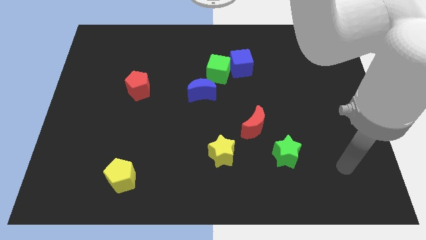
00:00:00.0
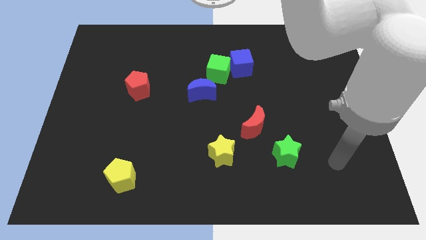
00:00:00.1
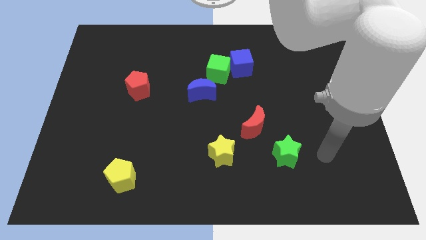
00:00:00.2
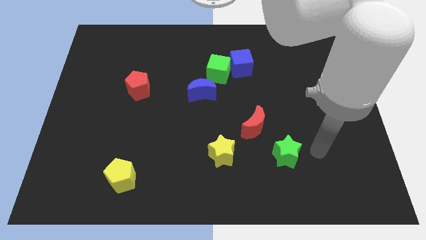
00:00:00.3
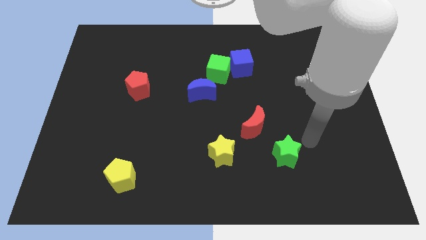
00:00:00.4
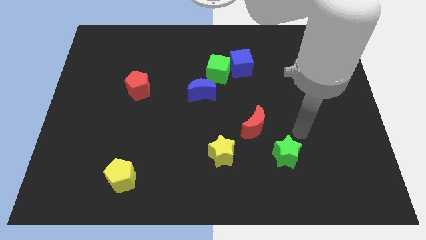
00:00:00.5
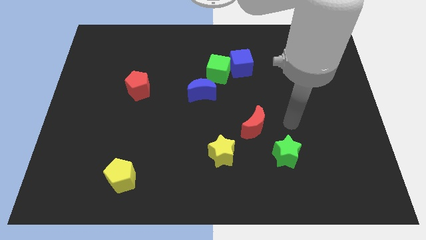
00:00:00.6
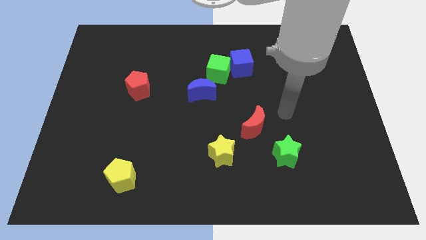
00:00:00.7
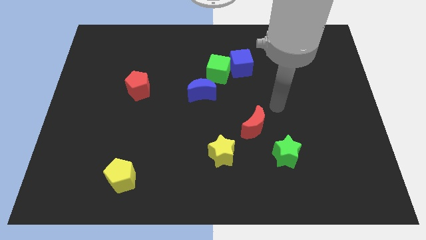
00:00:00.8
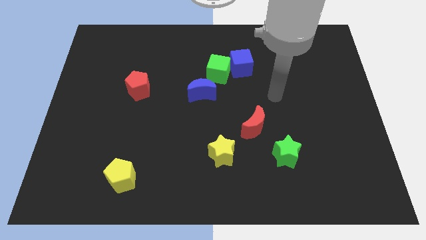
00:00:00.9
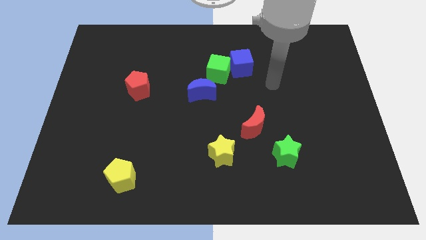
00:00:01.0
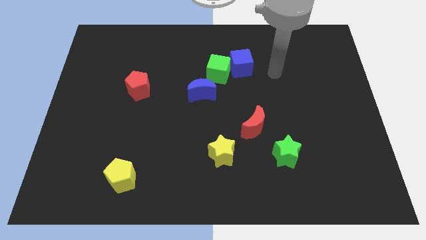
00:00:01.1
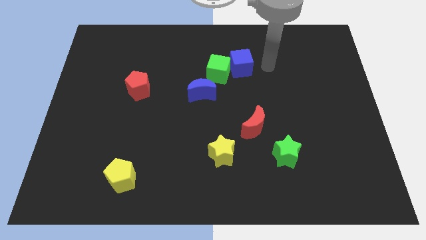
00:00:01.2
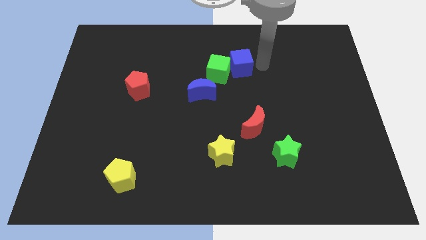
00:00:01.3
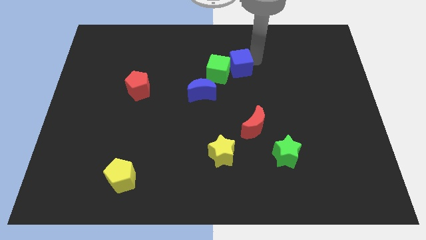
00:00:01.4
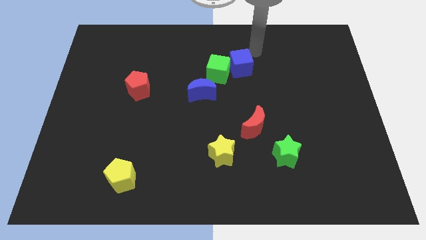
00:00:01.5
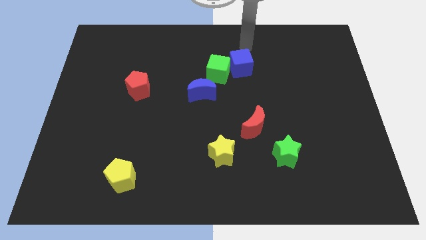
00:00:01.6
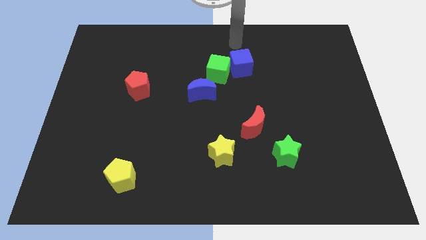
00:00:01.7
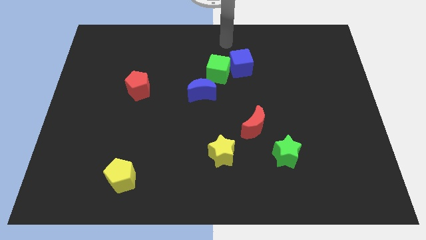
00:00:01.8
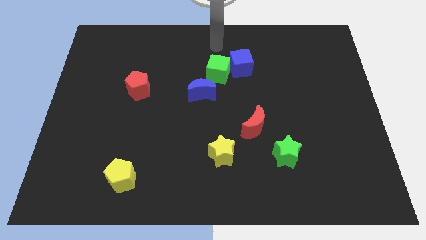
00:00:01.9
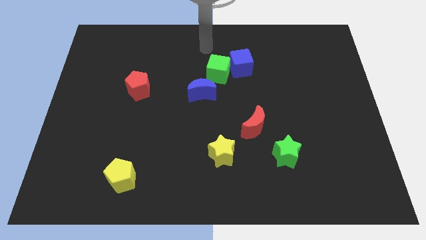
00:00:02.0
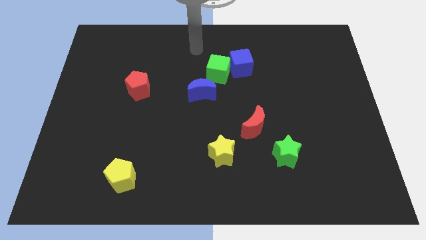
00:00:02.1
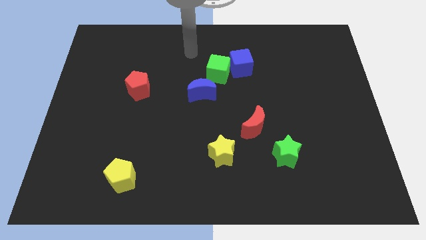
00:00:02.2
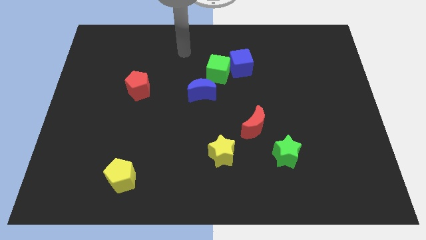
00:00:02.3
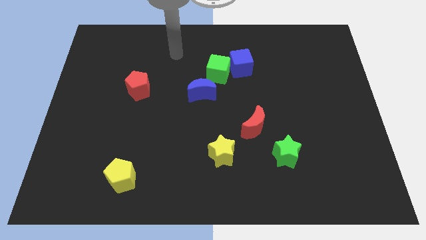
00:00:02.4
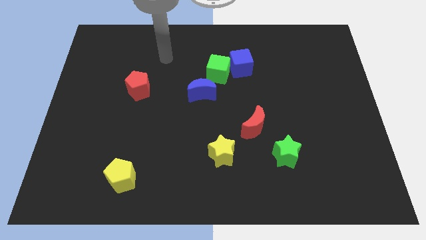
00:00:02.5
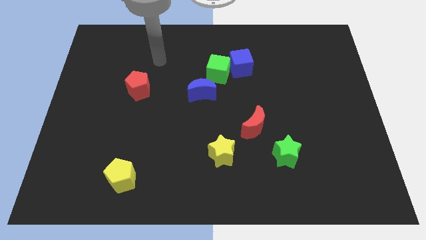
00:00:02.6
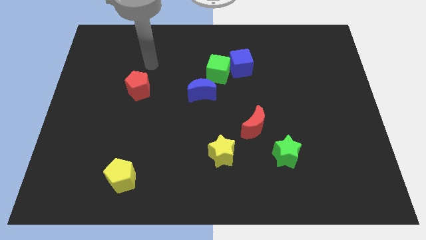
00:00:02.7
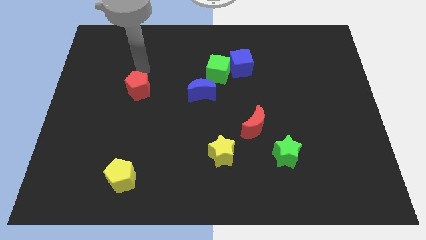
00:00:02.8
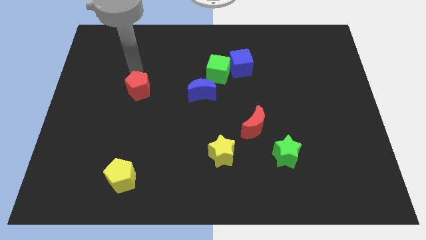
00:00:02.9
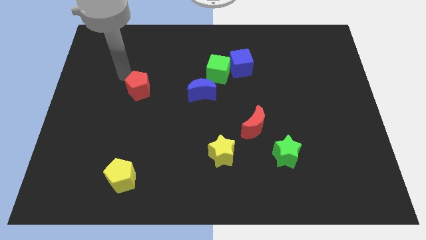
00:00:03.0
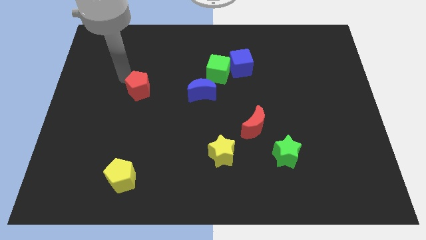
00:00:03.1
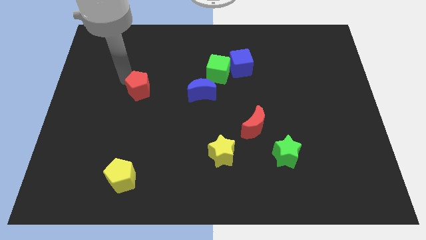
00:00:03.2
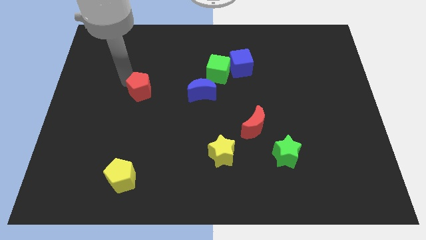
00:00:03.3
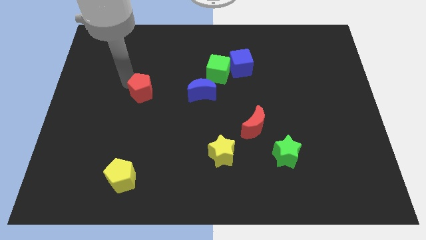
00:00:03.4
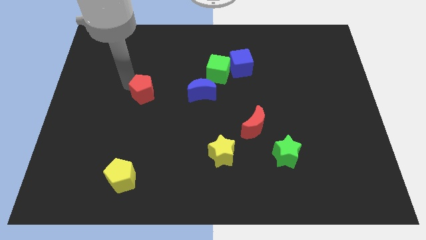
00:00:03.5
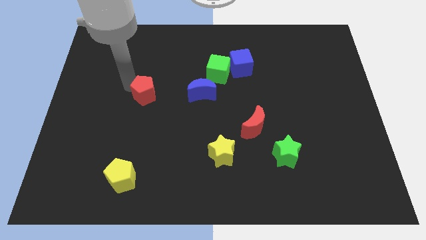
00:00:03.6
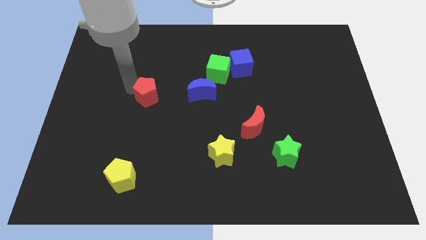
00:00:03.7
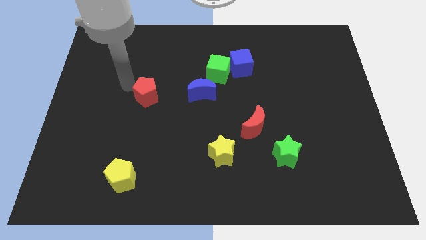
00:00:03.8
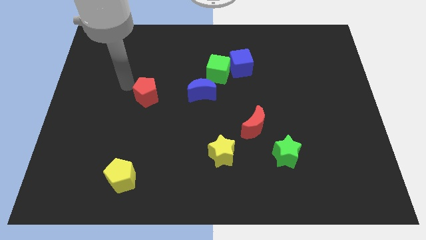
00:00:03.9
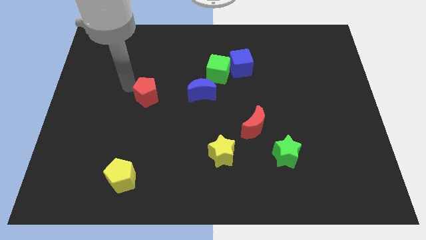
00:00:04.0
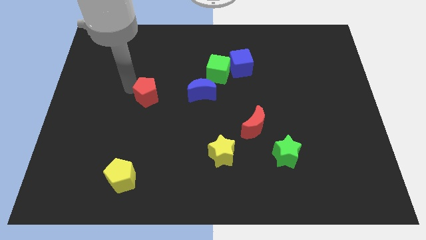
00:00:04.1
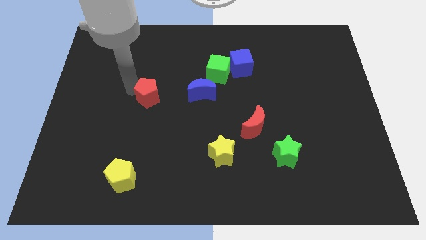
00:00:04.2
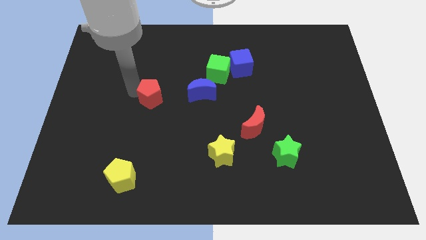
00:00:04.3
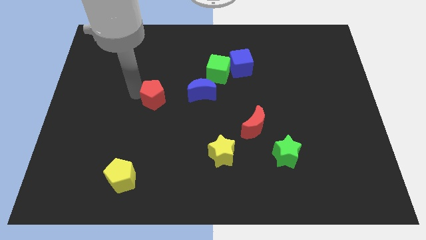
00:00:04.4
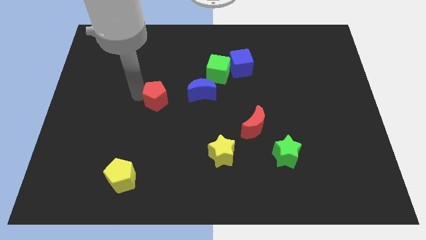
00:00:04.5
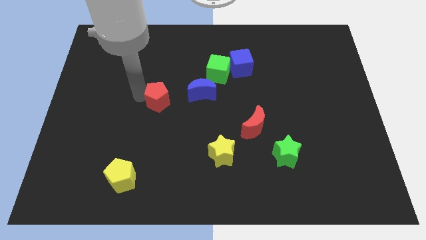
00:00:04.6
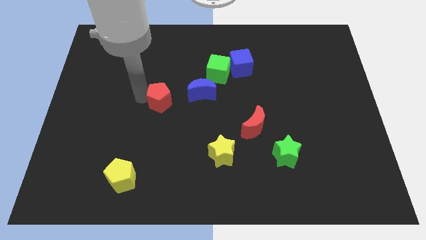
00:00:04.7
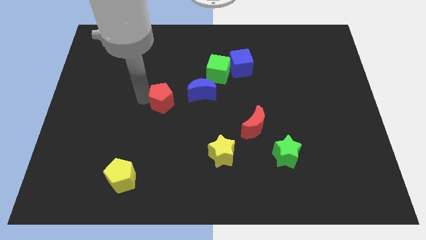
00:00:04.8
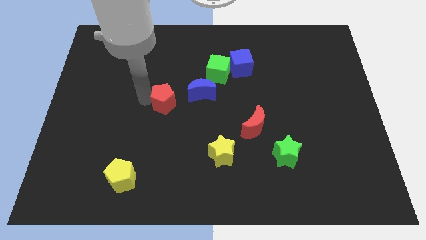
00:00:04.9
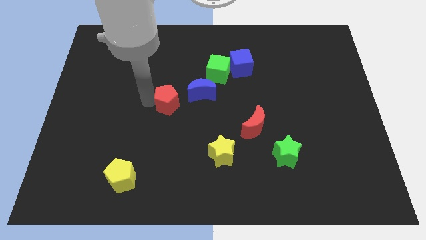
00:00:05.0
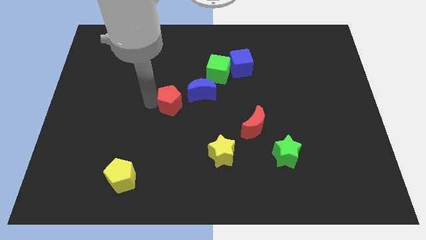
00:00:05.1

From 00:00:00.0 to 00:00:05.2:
push the red pentagon a bit right

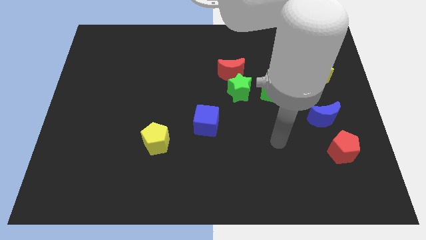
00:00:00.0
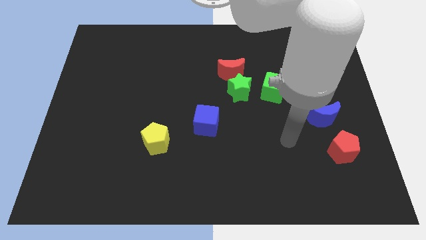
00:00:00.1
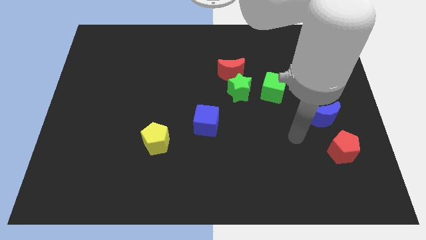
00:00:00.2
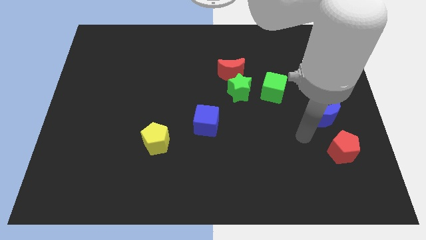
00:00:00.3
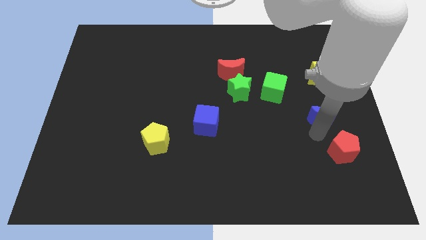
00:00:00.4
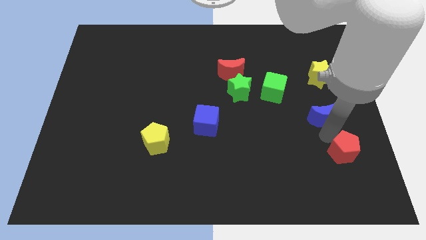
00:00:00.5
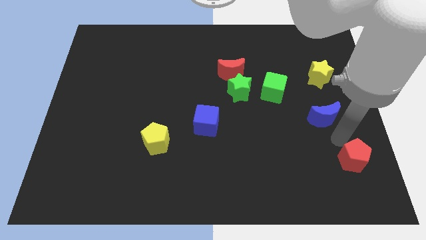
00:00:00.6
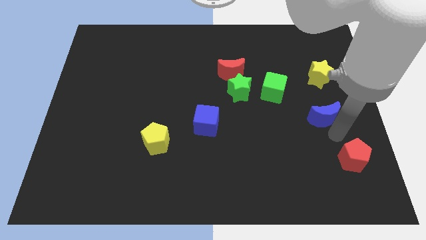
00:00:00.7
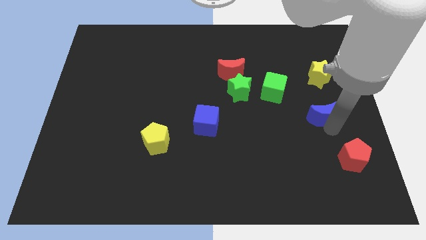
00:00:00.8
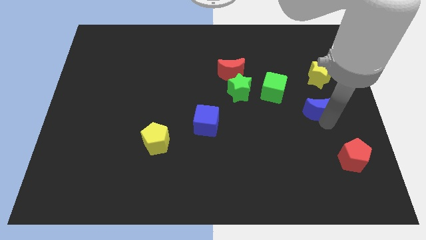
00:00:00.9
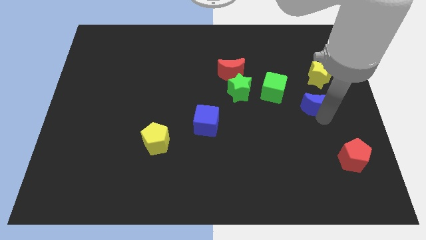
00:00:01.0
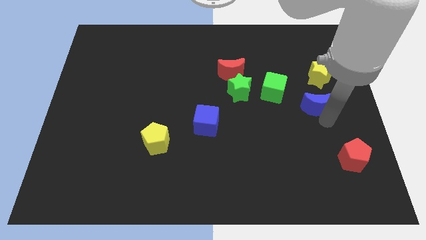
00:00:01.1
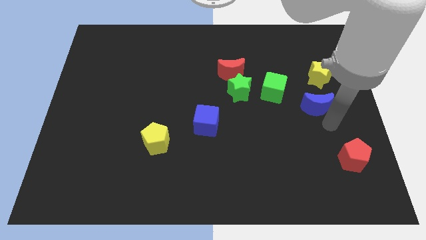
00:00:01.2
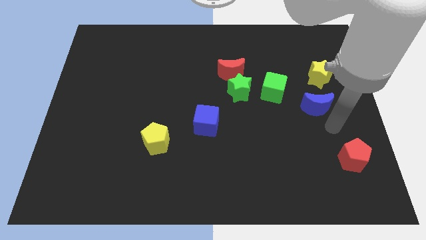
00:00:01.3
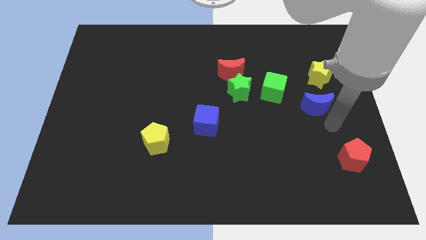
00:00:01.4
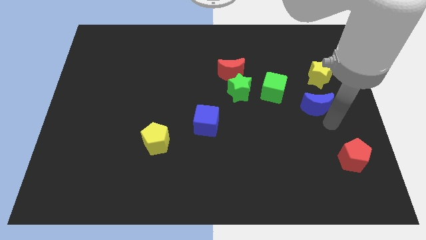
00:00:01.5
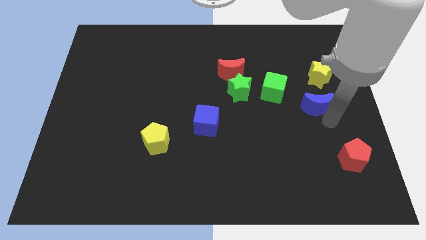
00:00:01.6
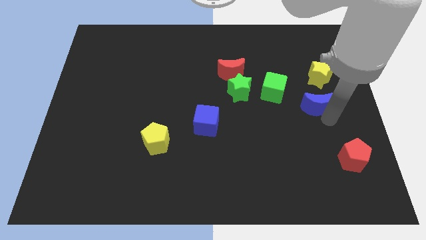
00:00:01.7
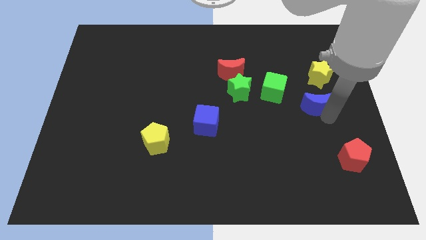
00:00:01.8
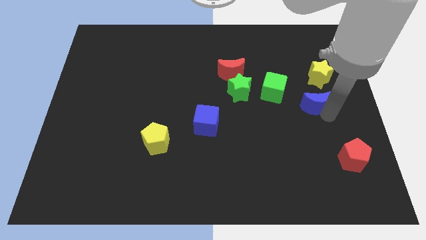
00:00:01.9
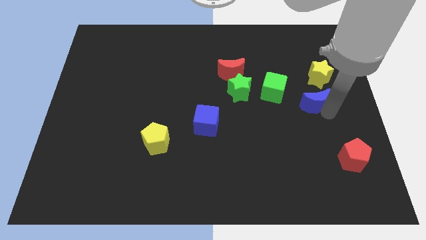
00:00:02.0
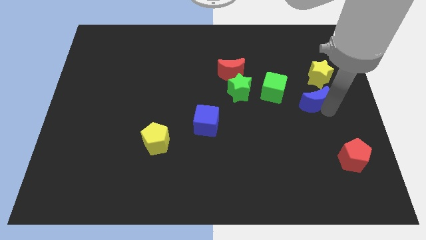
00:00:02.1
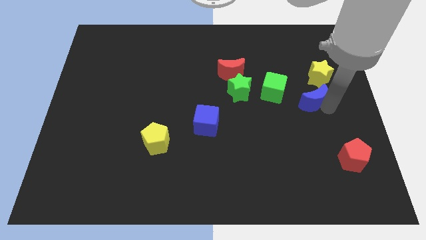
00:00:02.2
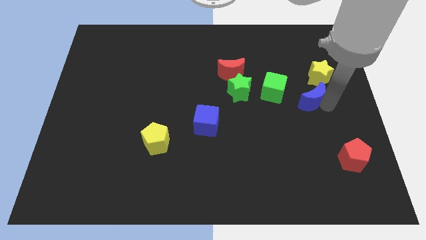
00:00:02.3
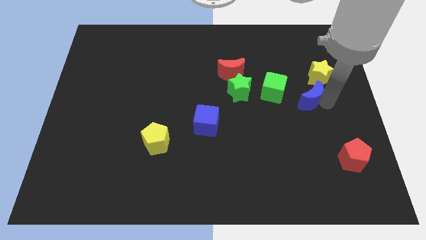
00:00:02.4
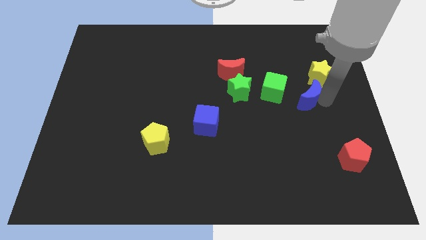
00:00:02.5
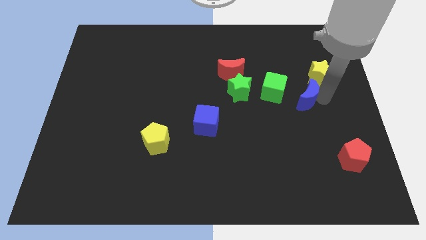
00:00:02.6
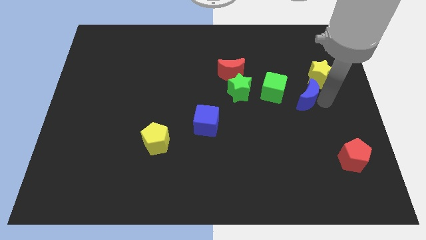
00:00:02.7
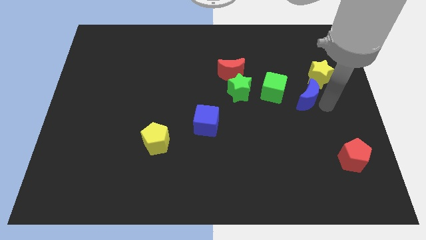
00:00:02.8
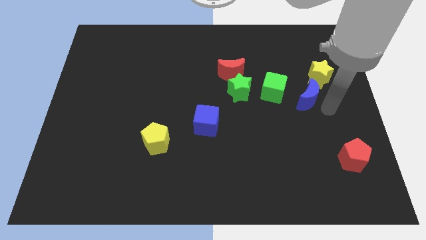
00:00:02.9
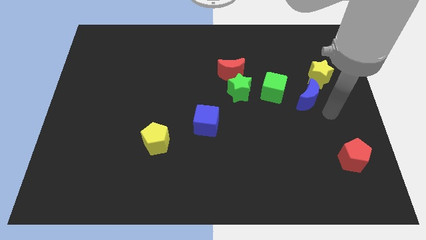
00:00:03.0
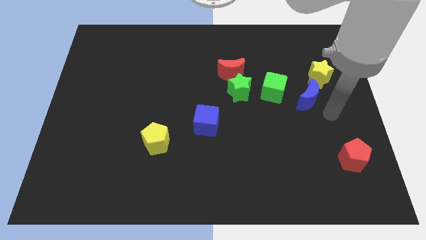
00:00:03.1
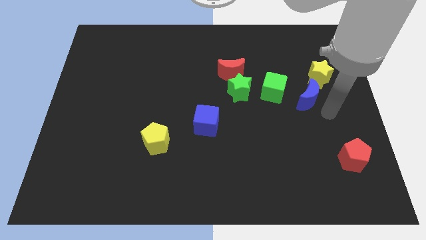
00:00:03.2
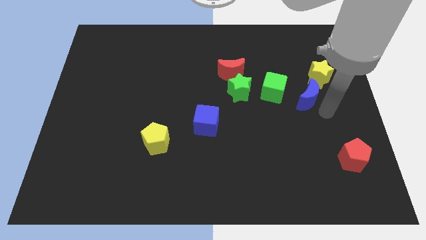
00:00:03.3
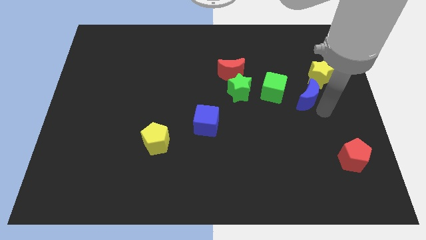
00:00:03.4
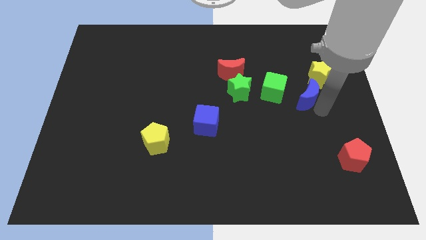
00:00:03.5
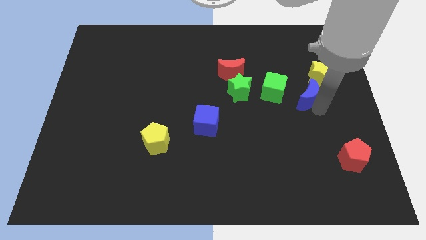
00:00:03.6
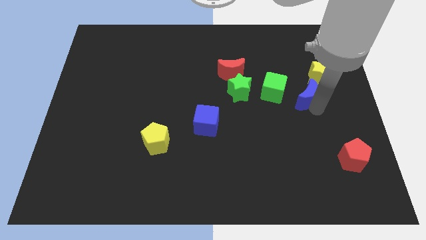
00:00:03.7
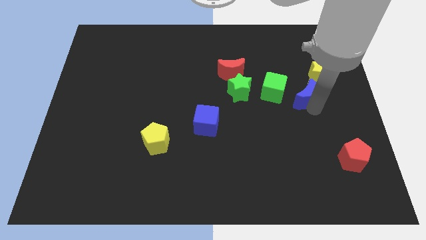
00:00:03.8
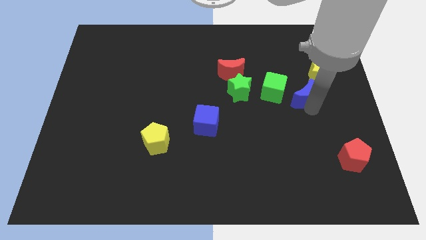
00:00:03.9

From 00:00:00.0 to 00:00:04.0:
slide the blue moon up and then to the left a little
